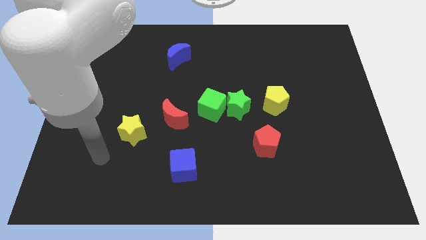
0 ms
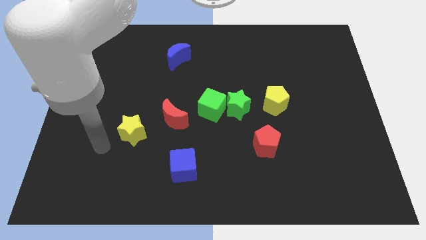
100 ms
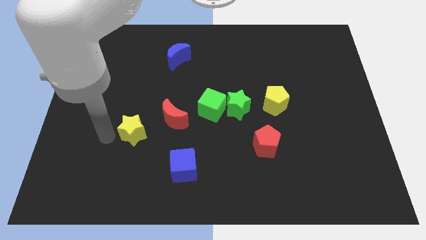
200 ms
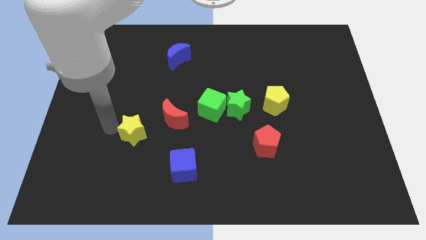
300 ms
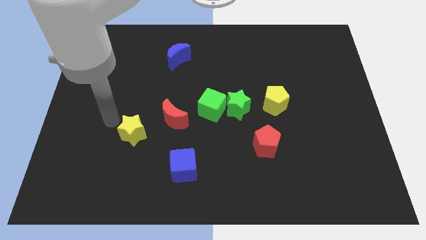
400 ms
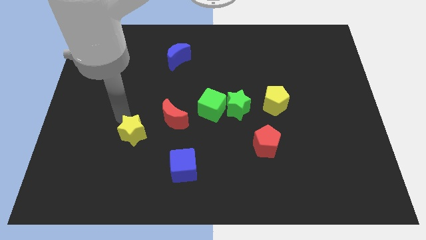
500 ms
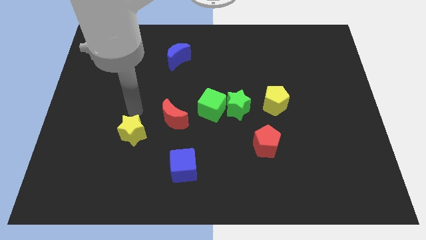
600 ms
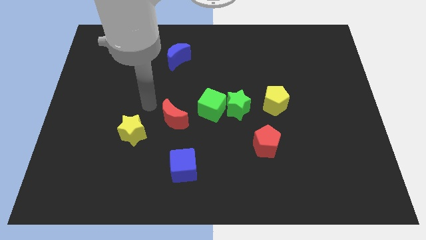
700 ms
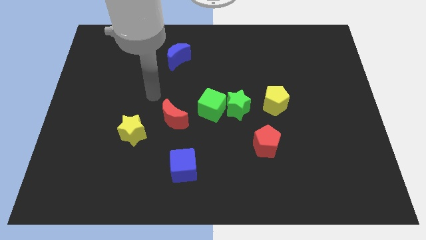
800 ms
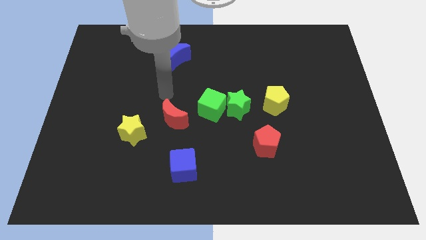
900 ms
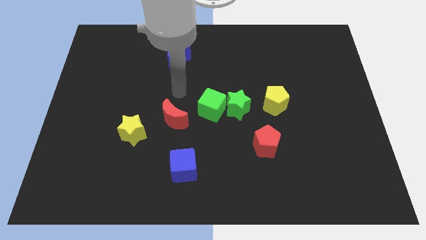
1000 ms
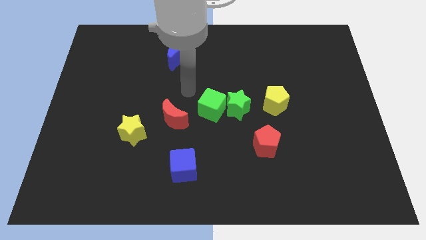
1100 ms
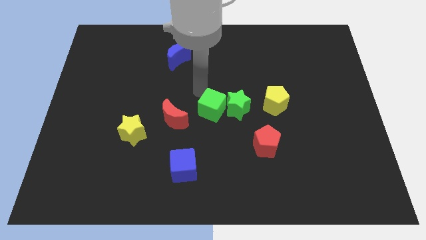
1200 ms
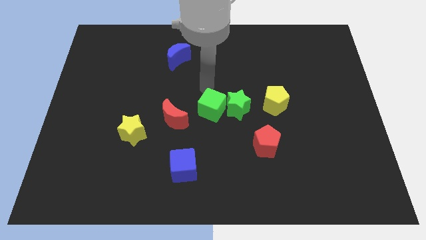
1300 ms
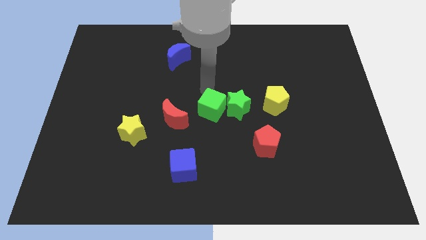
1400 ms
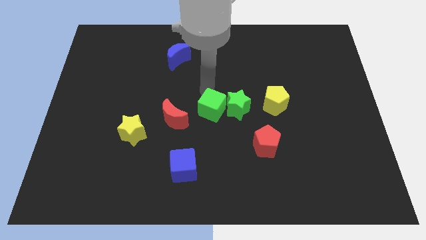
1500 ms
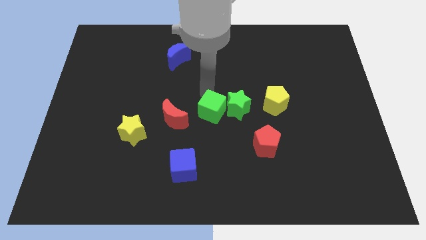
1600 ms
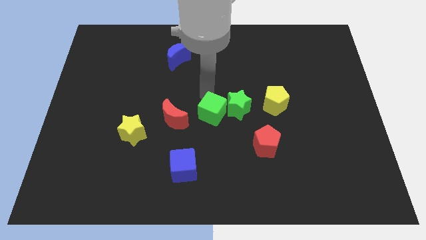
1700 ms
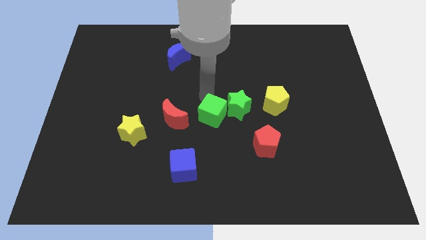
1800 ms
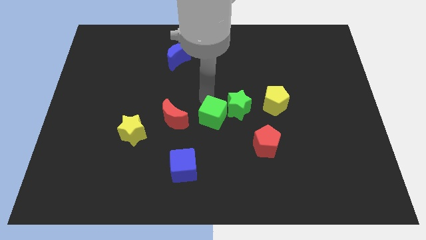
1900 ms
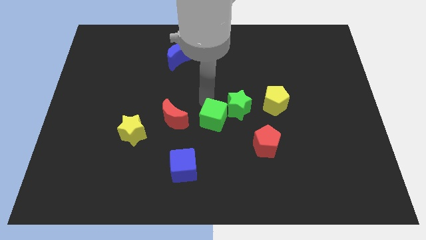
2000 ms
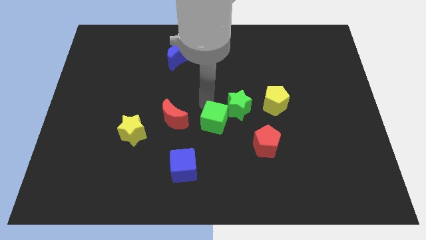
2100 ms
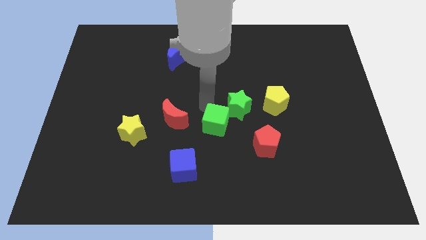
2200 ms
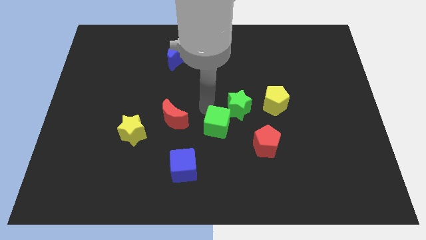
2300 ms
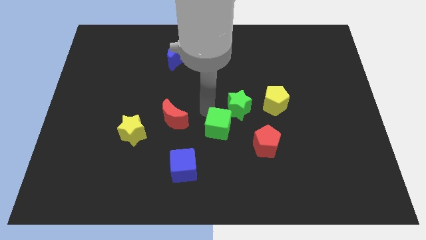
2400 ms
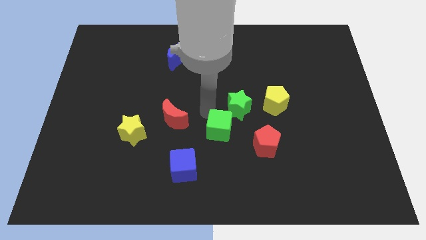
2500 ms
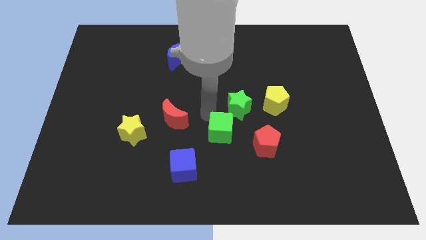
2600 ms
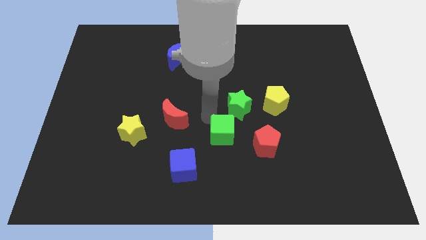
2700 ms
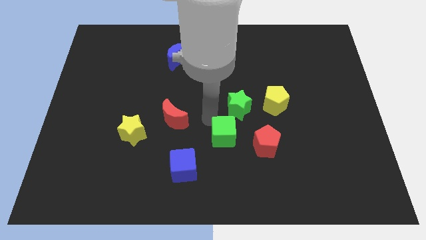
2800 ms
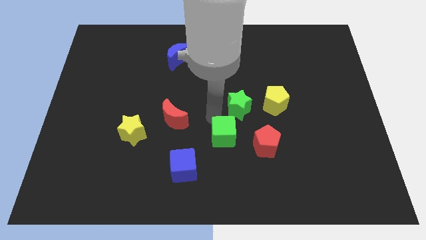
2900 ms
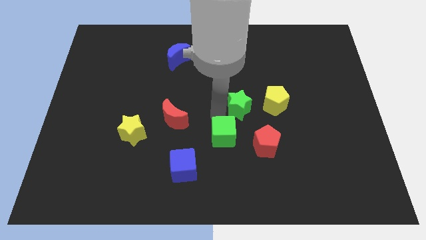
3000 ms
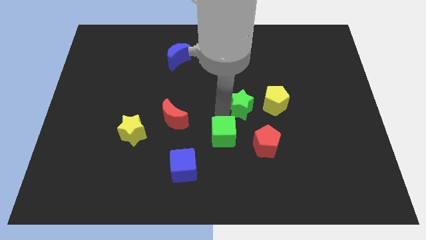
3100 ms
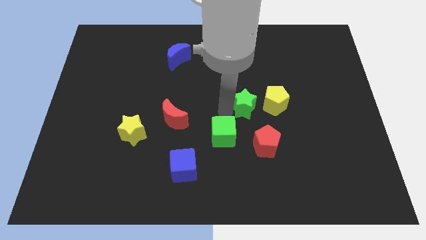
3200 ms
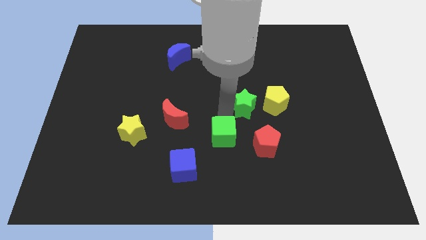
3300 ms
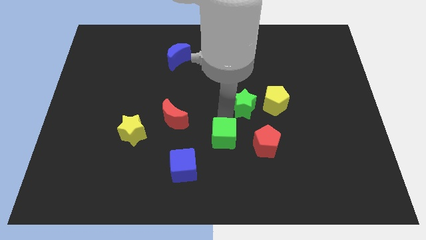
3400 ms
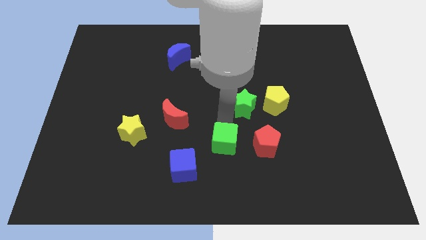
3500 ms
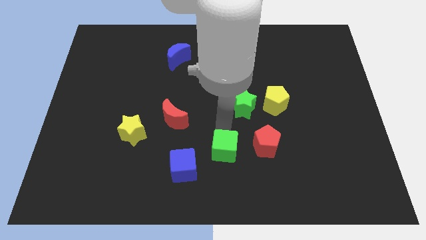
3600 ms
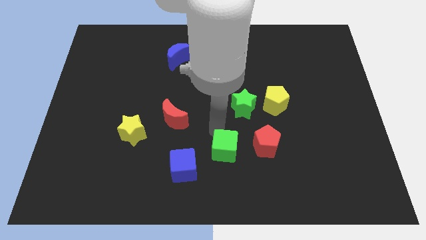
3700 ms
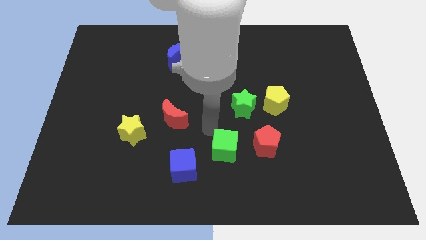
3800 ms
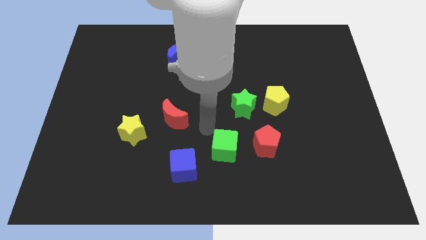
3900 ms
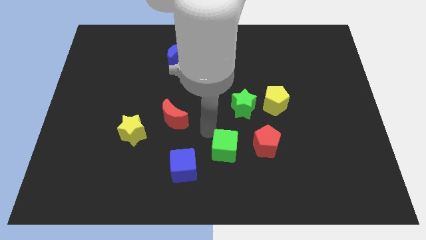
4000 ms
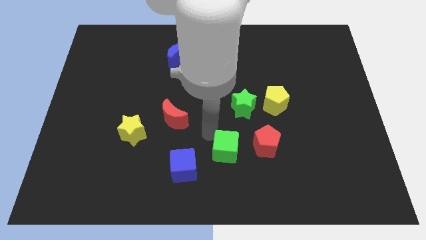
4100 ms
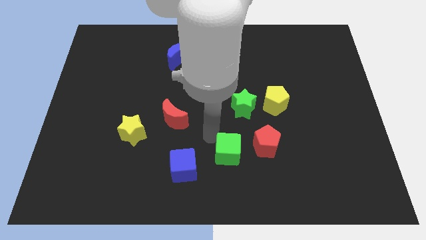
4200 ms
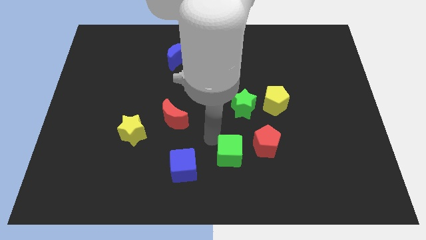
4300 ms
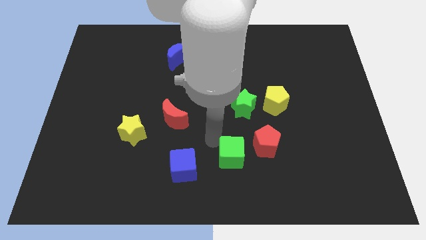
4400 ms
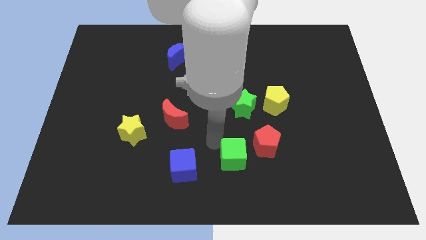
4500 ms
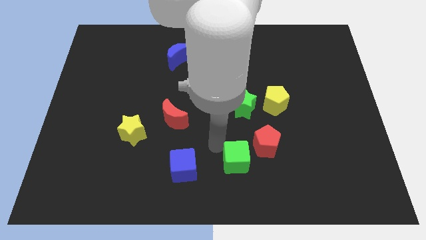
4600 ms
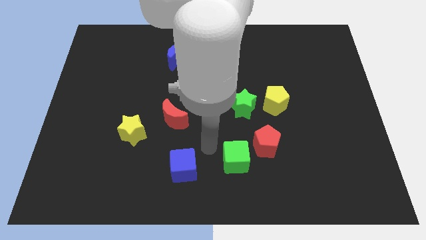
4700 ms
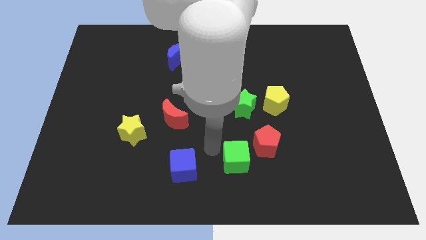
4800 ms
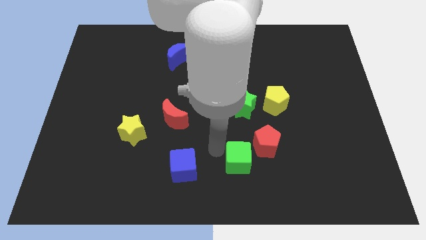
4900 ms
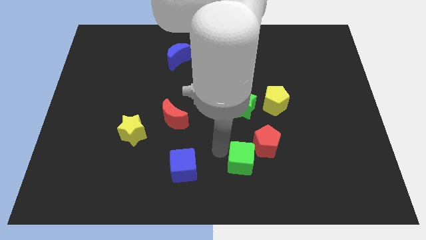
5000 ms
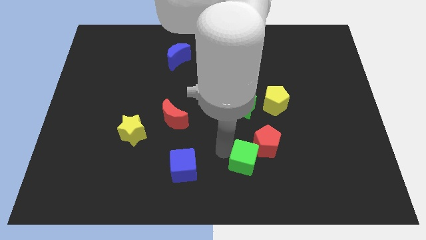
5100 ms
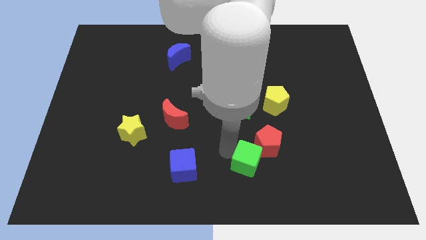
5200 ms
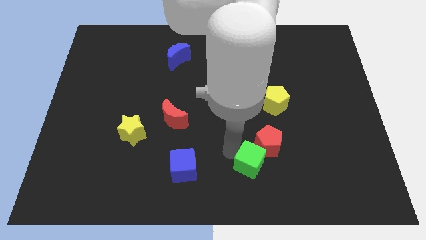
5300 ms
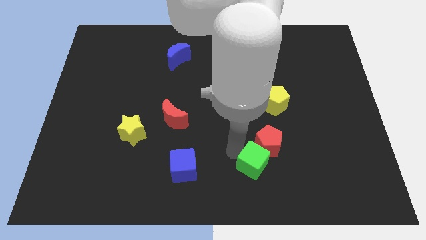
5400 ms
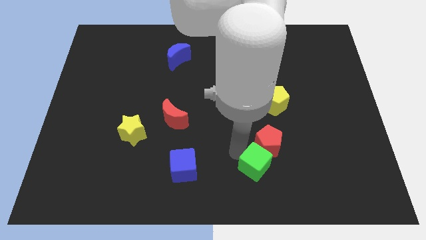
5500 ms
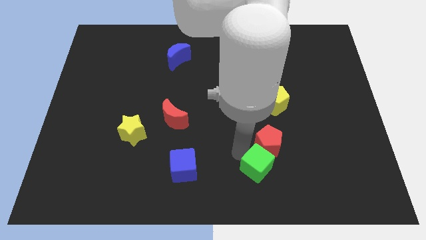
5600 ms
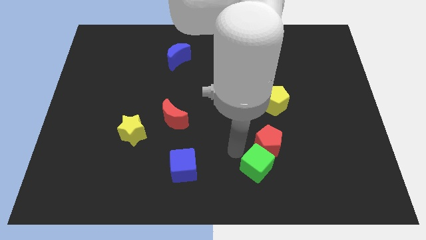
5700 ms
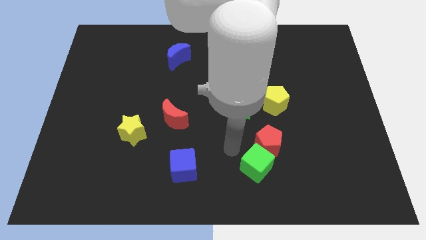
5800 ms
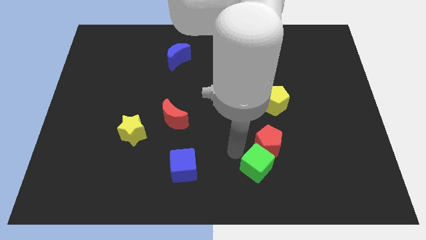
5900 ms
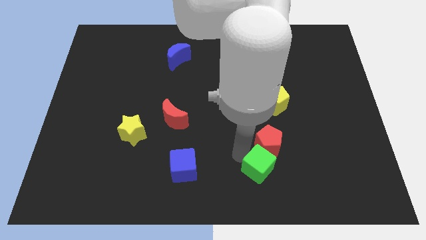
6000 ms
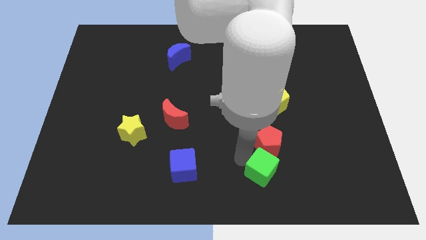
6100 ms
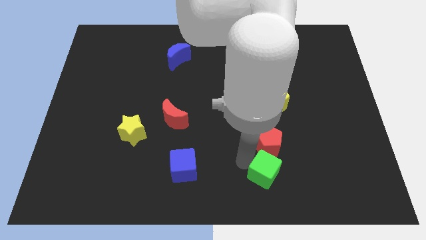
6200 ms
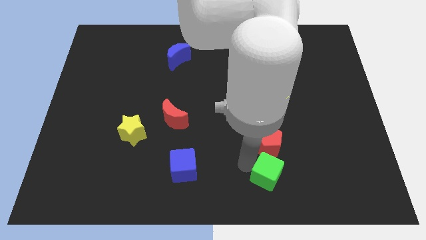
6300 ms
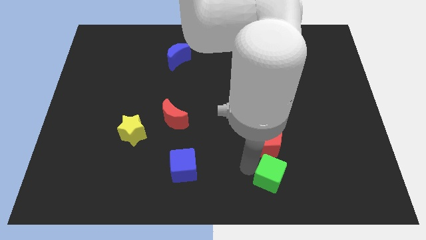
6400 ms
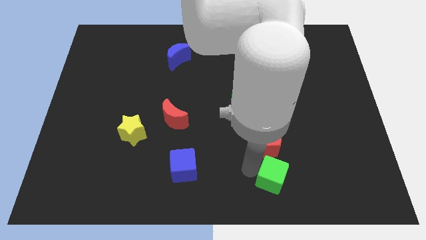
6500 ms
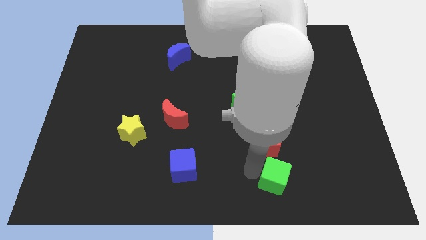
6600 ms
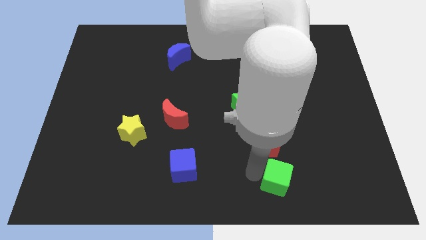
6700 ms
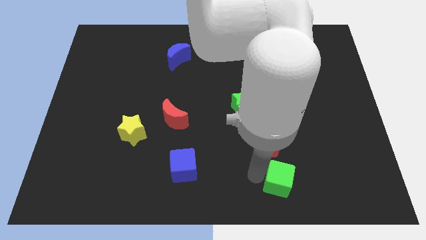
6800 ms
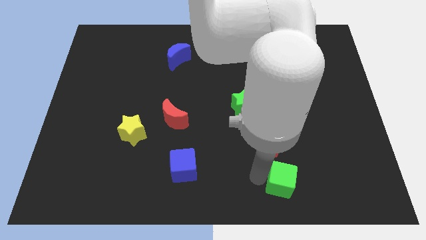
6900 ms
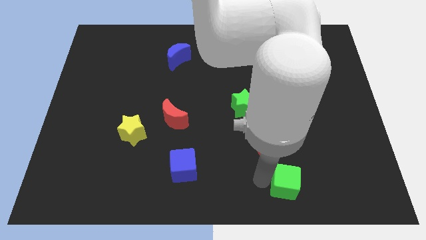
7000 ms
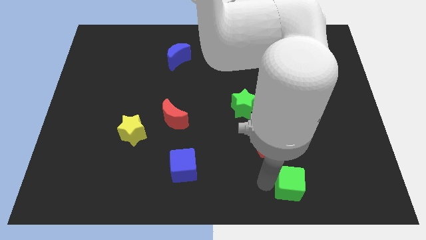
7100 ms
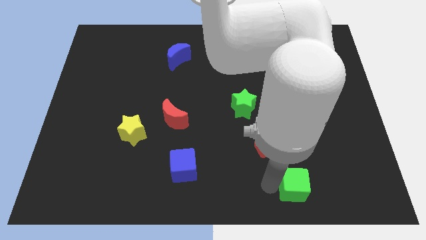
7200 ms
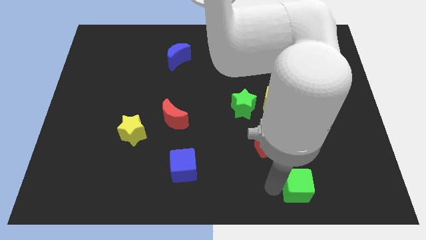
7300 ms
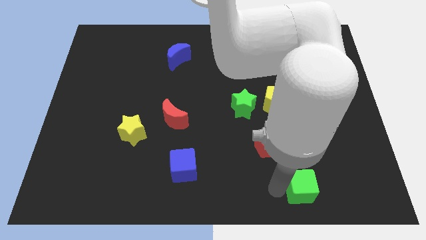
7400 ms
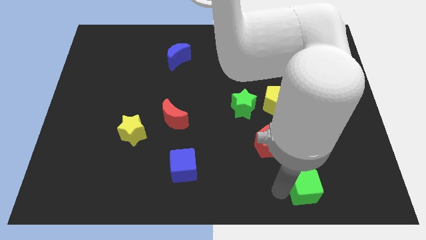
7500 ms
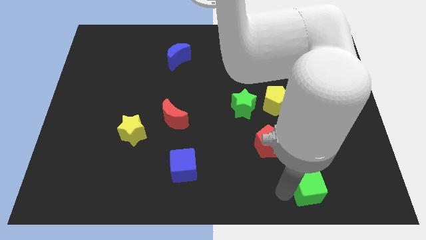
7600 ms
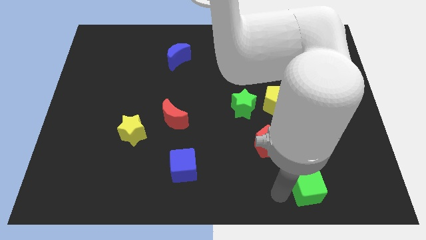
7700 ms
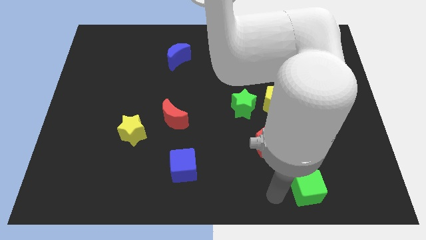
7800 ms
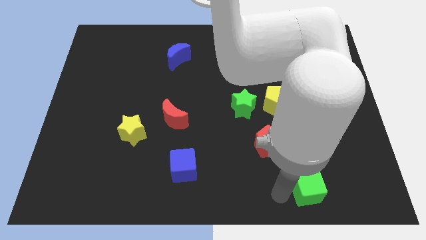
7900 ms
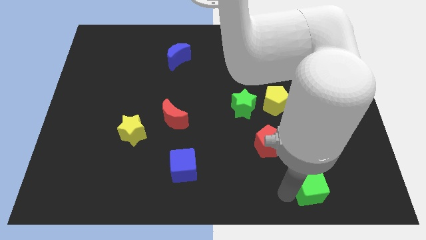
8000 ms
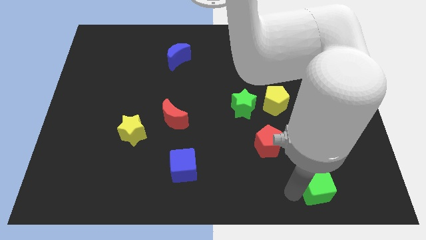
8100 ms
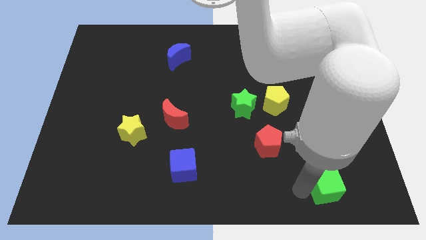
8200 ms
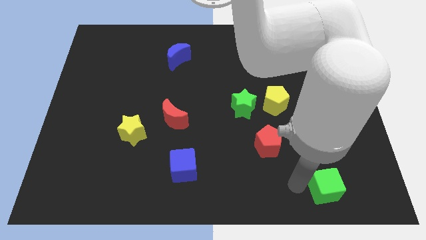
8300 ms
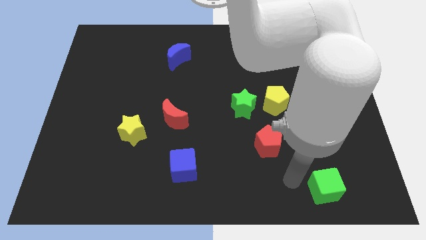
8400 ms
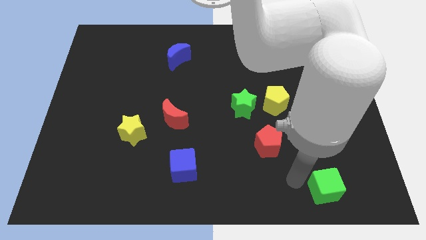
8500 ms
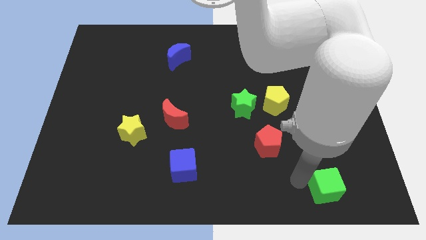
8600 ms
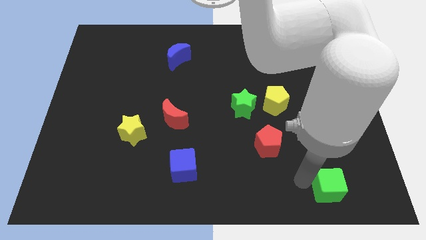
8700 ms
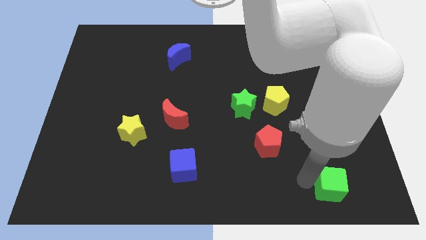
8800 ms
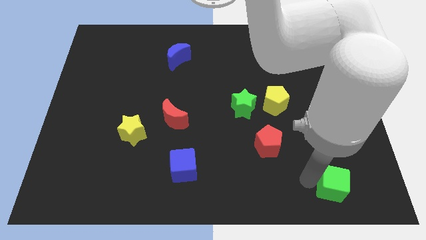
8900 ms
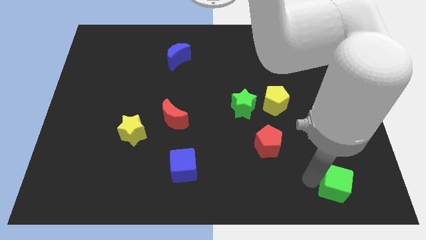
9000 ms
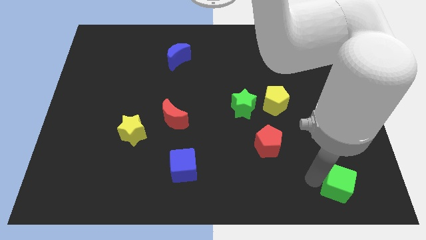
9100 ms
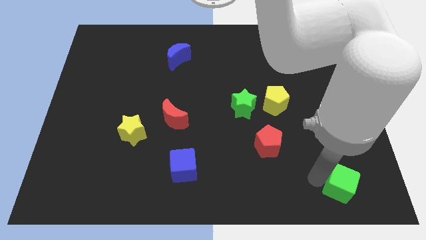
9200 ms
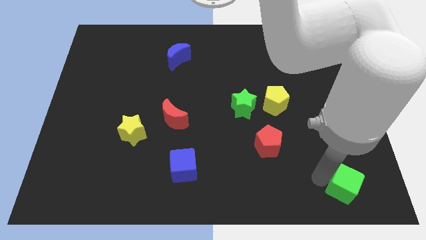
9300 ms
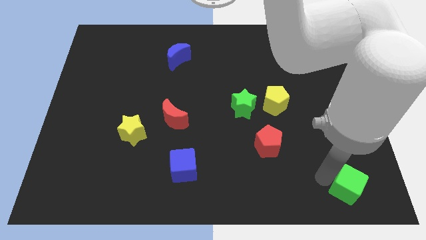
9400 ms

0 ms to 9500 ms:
put the green cube to the lower right corner
